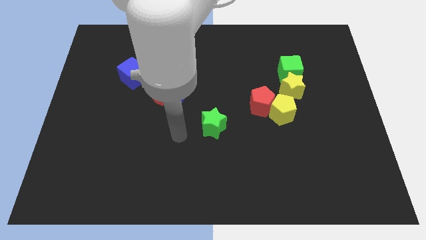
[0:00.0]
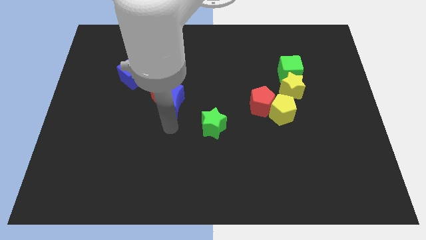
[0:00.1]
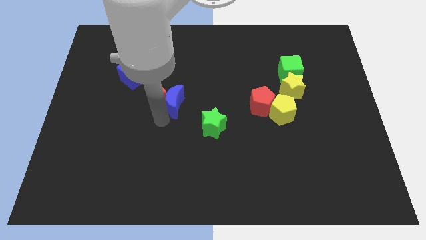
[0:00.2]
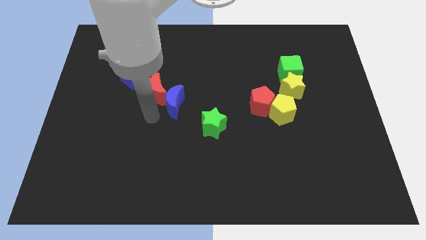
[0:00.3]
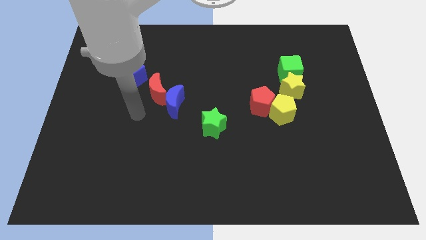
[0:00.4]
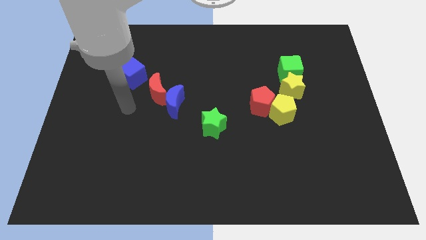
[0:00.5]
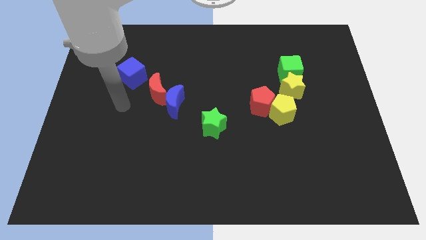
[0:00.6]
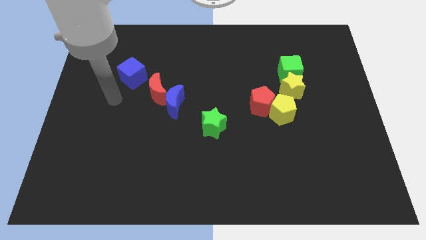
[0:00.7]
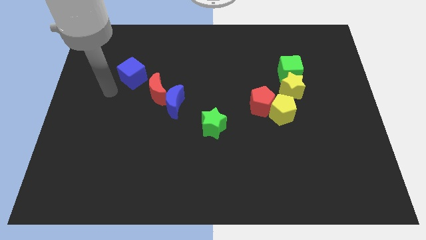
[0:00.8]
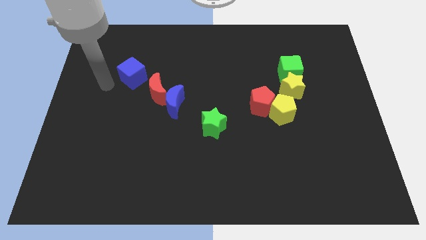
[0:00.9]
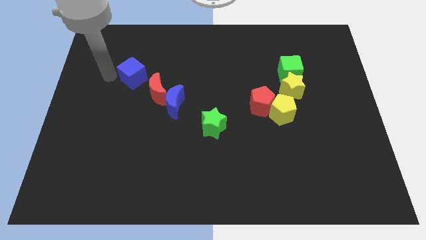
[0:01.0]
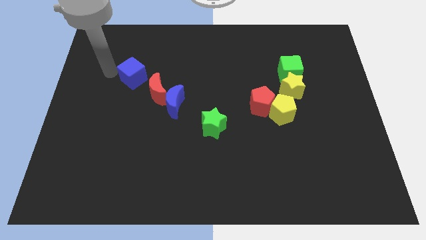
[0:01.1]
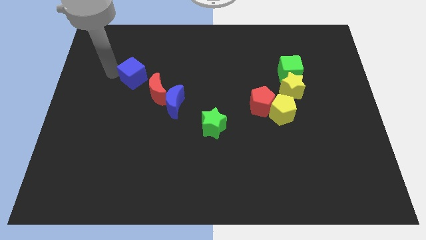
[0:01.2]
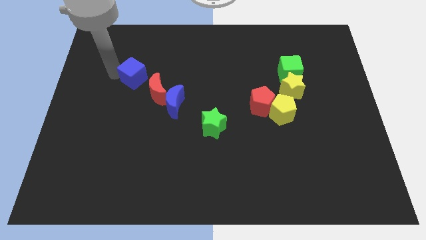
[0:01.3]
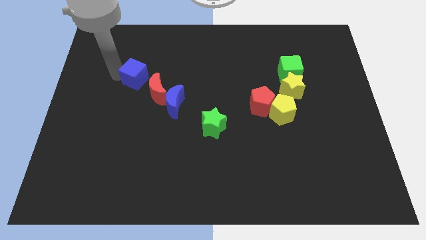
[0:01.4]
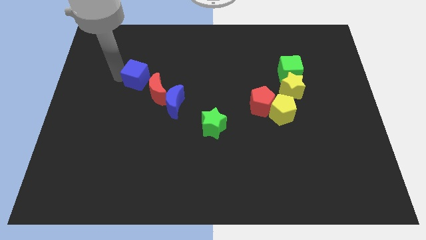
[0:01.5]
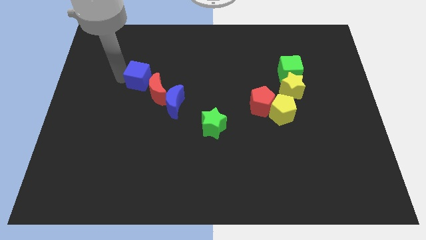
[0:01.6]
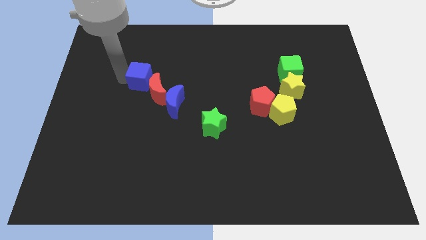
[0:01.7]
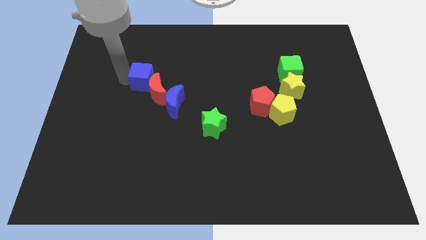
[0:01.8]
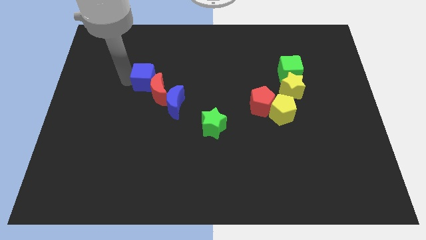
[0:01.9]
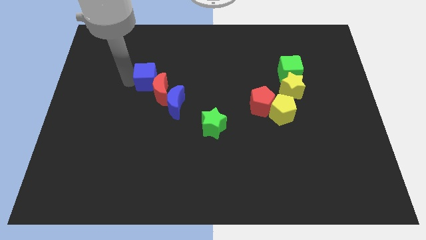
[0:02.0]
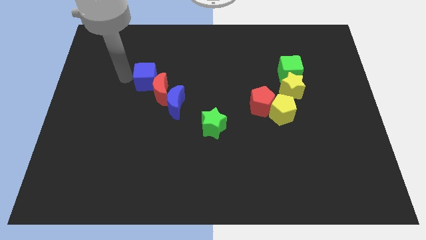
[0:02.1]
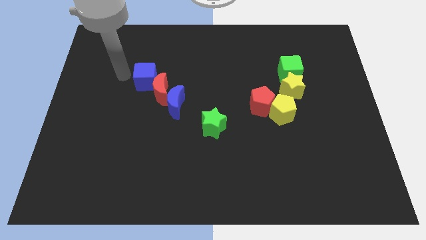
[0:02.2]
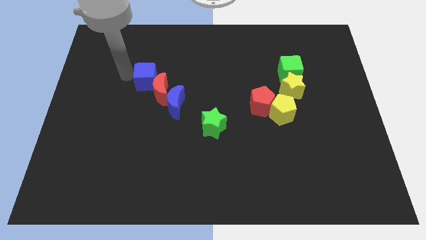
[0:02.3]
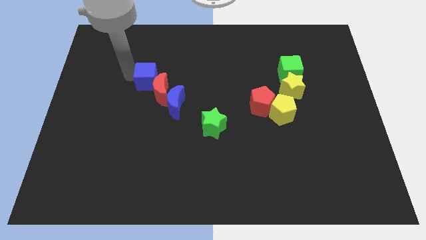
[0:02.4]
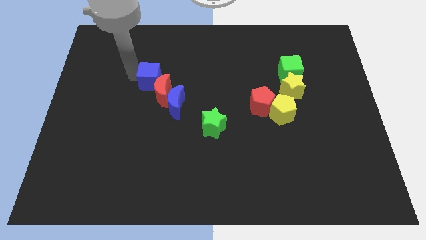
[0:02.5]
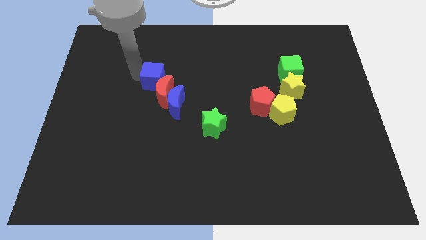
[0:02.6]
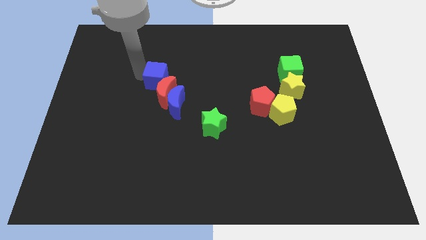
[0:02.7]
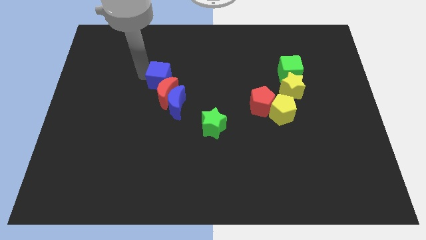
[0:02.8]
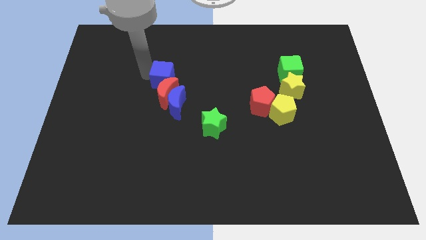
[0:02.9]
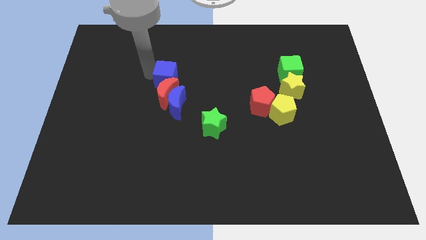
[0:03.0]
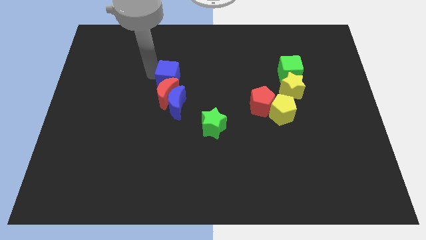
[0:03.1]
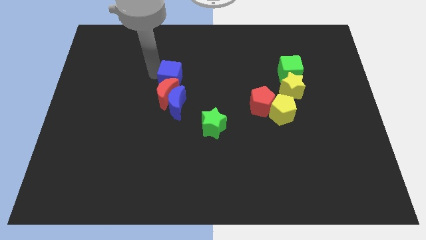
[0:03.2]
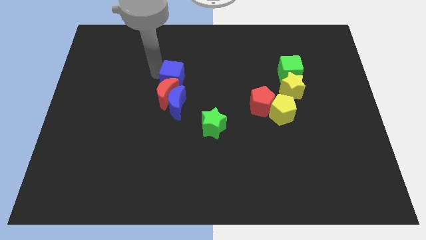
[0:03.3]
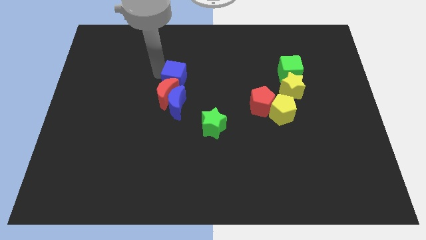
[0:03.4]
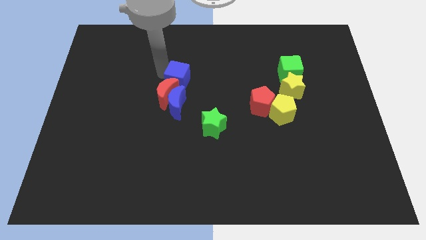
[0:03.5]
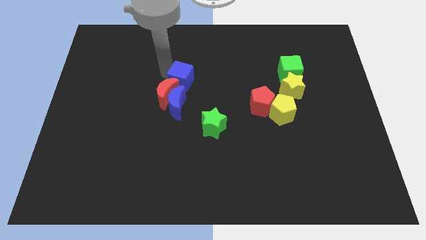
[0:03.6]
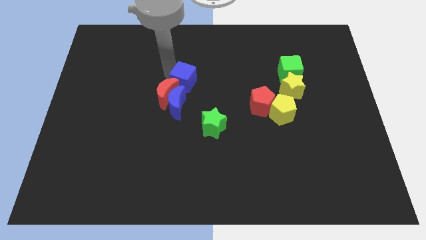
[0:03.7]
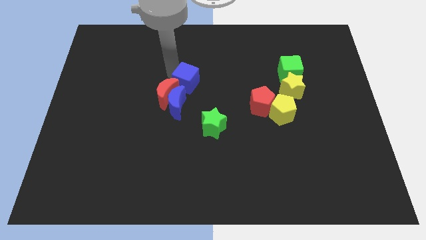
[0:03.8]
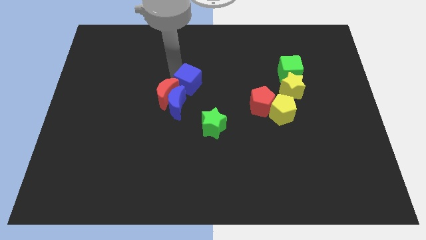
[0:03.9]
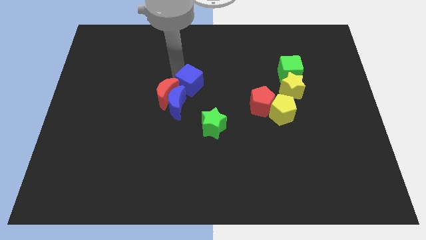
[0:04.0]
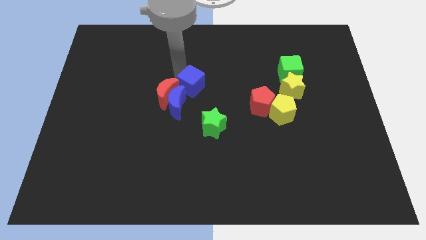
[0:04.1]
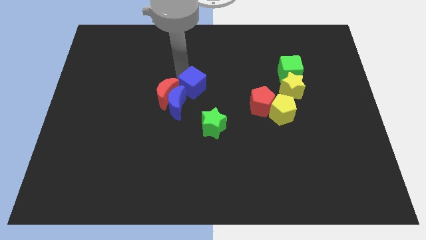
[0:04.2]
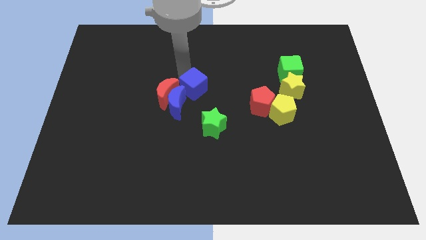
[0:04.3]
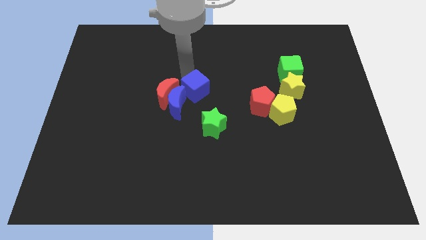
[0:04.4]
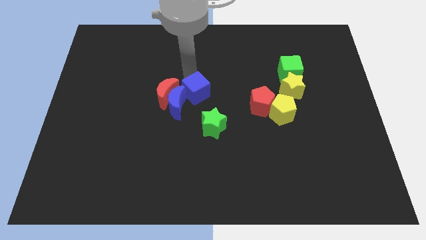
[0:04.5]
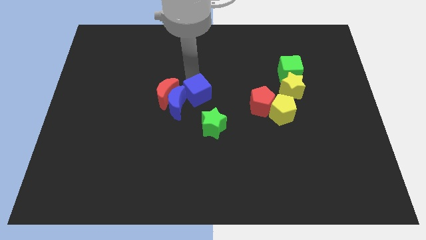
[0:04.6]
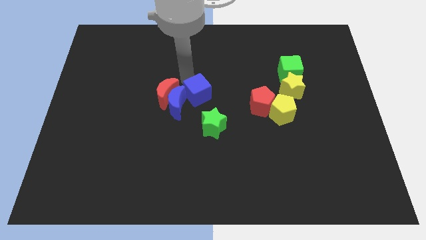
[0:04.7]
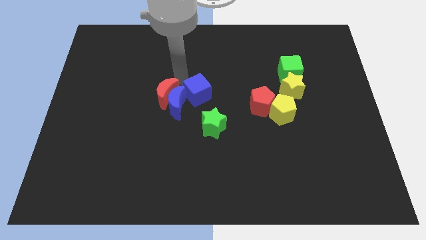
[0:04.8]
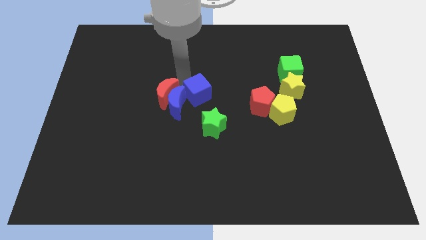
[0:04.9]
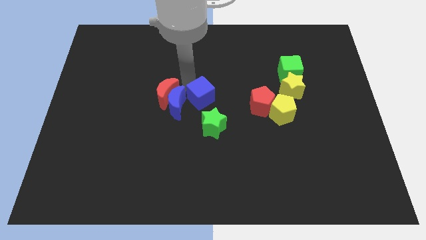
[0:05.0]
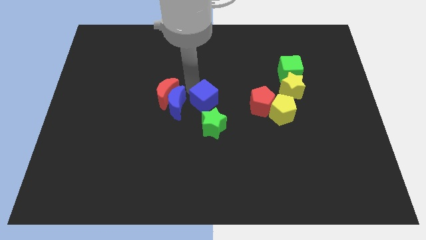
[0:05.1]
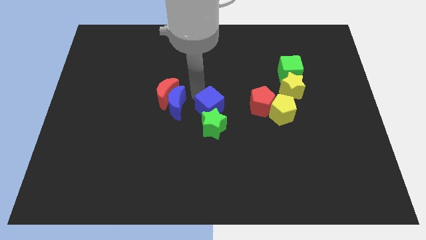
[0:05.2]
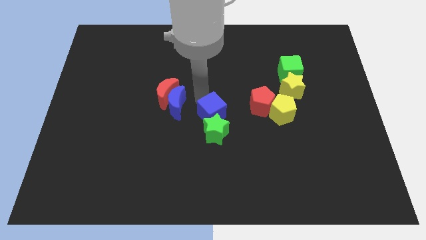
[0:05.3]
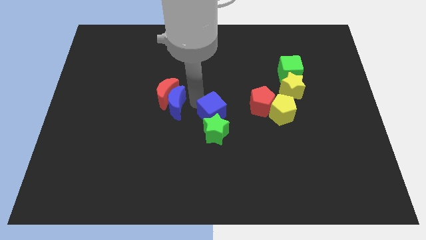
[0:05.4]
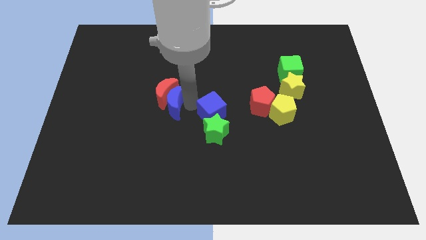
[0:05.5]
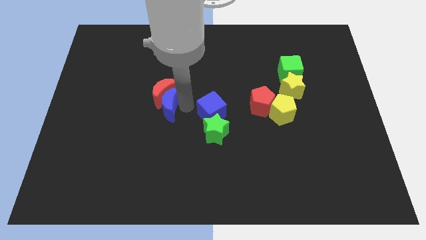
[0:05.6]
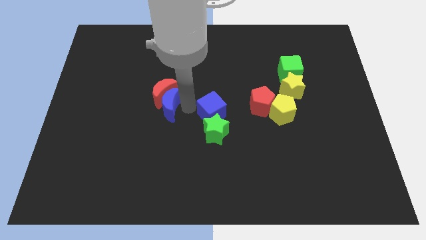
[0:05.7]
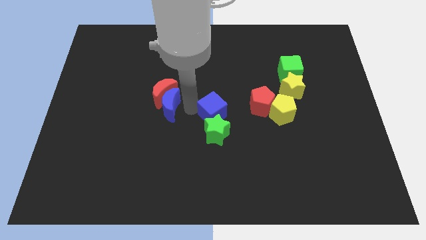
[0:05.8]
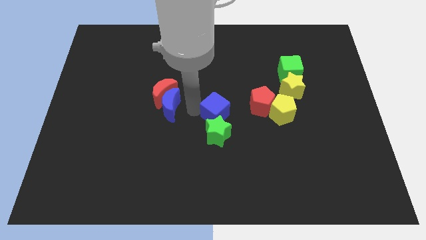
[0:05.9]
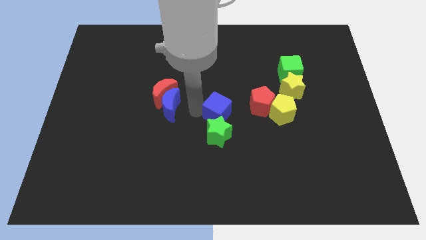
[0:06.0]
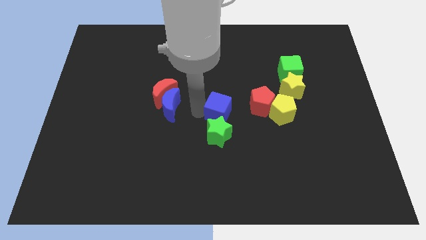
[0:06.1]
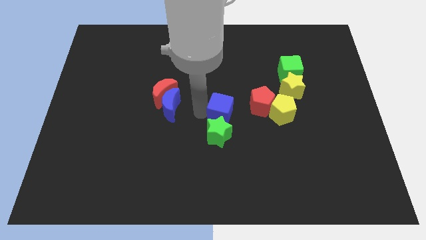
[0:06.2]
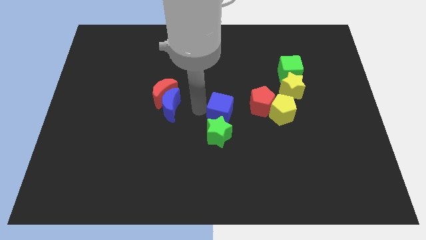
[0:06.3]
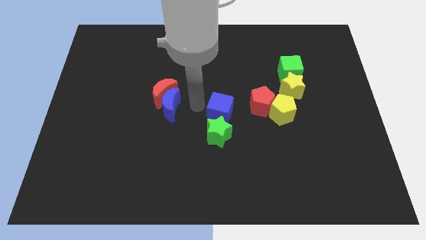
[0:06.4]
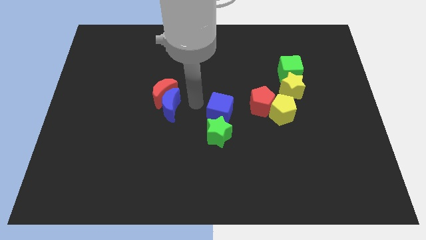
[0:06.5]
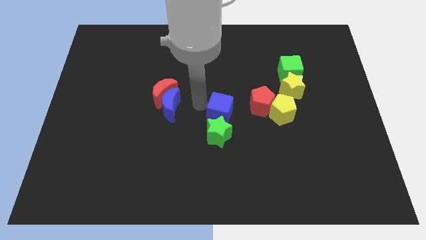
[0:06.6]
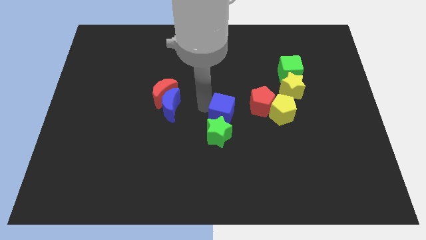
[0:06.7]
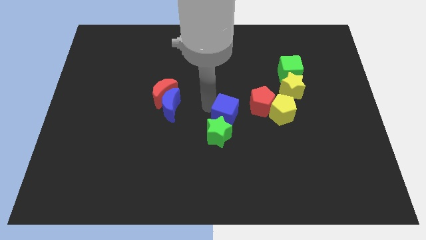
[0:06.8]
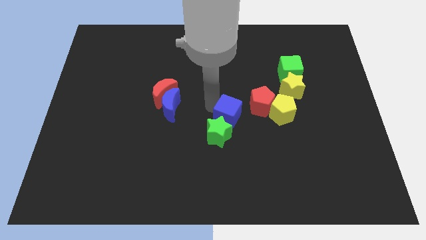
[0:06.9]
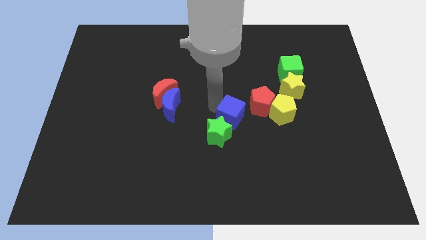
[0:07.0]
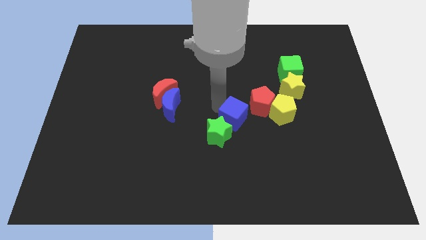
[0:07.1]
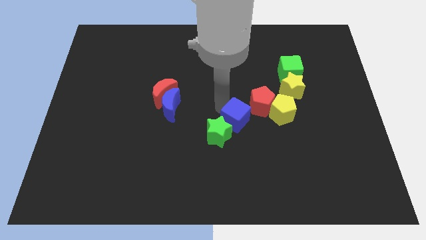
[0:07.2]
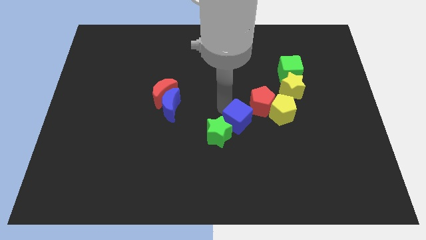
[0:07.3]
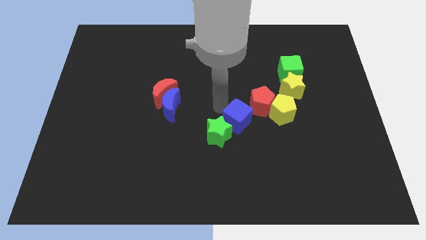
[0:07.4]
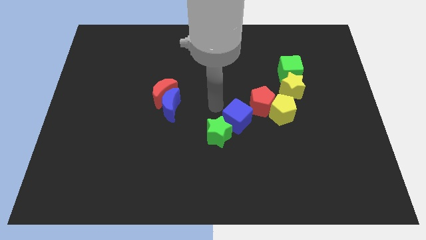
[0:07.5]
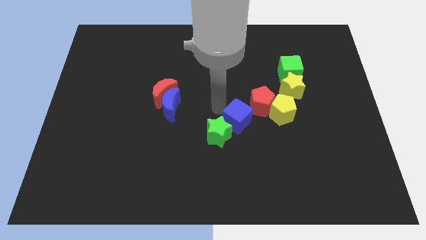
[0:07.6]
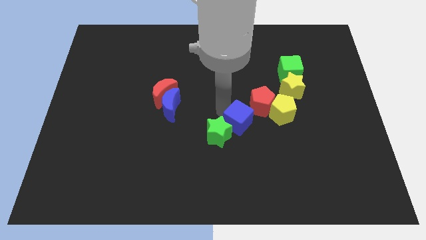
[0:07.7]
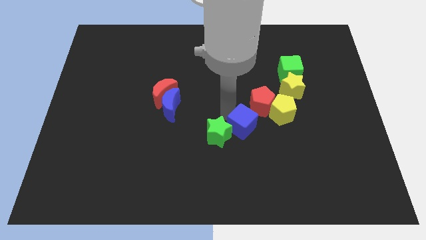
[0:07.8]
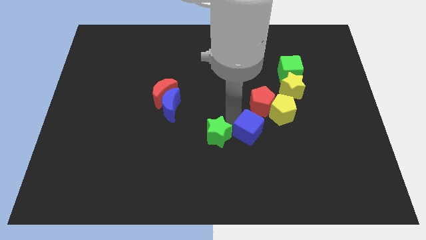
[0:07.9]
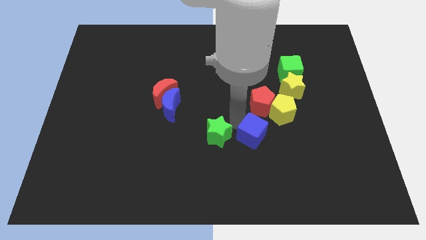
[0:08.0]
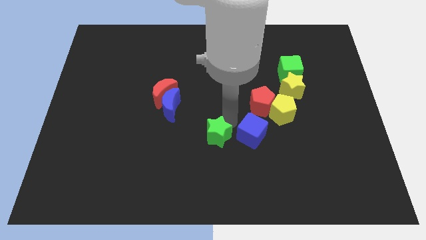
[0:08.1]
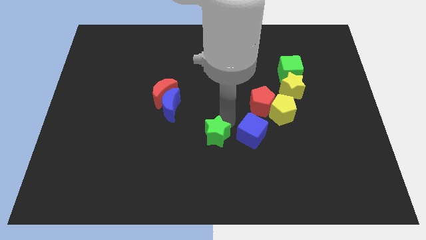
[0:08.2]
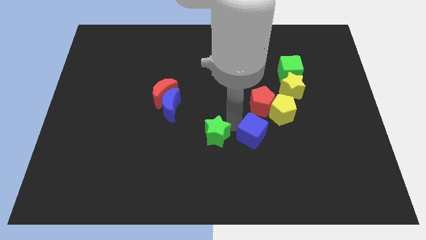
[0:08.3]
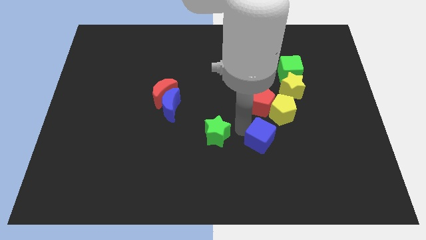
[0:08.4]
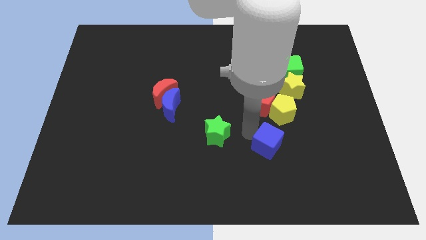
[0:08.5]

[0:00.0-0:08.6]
put the blue cube below the yellow pentagon
